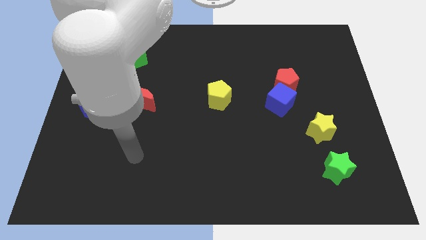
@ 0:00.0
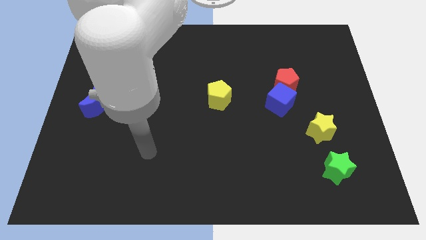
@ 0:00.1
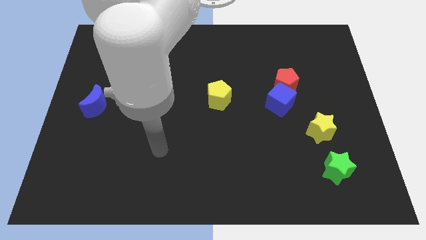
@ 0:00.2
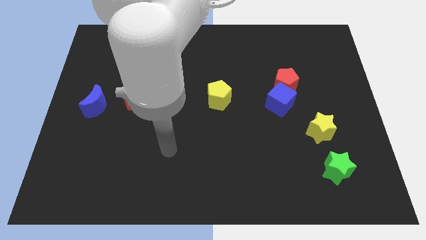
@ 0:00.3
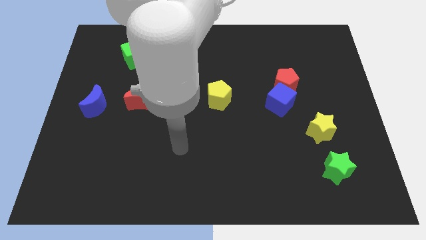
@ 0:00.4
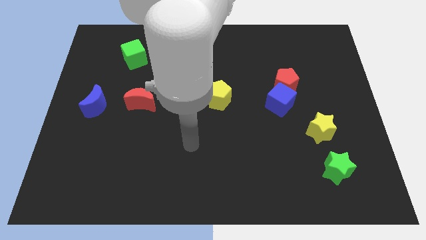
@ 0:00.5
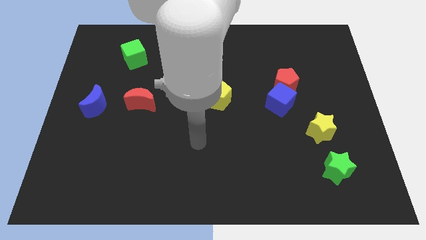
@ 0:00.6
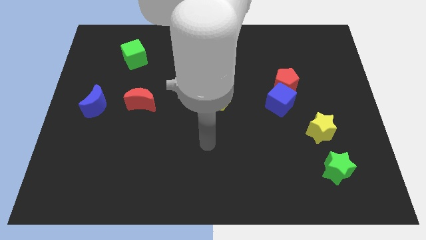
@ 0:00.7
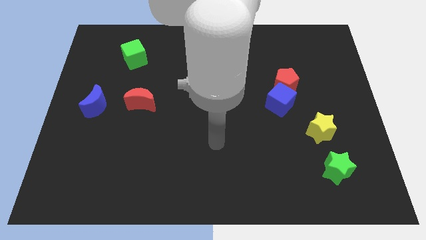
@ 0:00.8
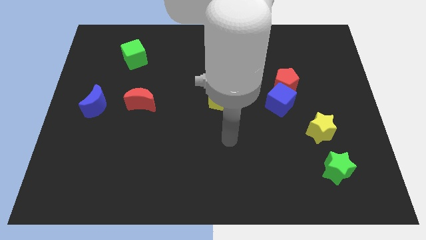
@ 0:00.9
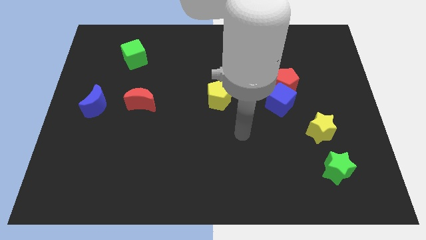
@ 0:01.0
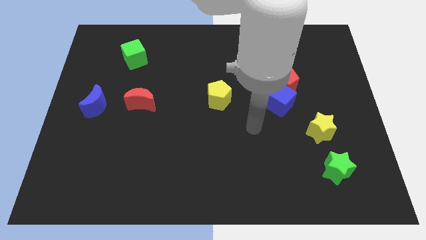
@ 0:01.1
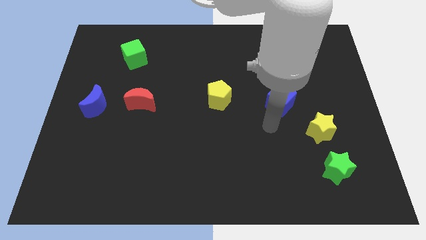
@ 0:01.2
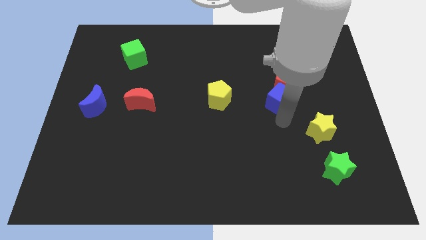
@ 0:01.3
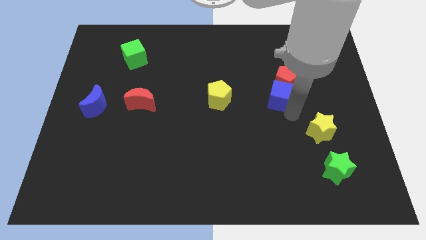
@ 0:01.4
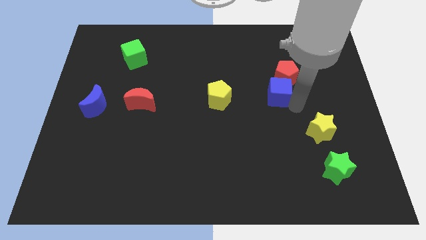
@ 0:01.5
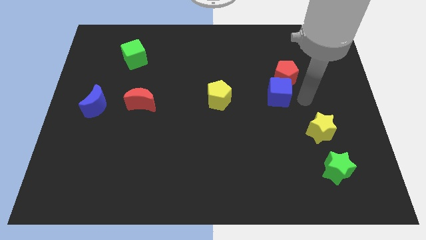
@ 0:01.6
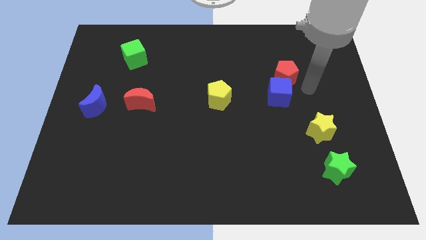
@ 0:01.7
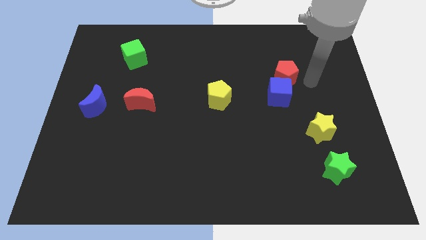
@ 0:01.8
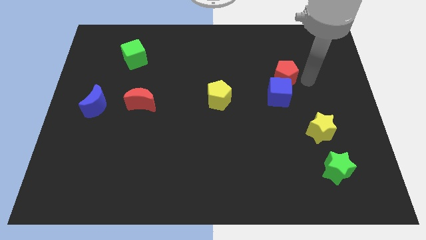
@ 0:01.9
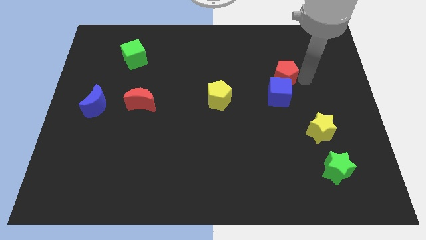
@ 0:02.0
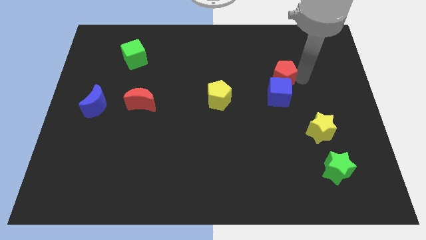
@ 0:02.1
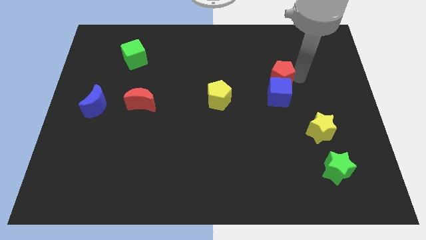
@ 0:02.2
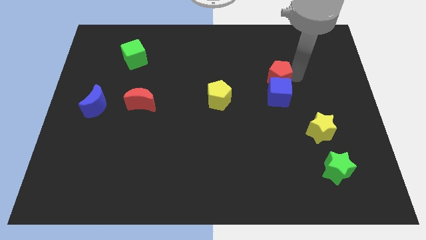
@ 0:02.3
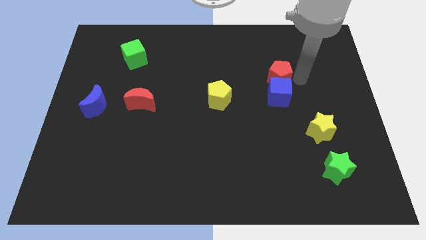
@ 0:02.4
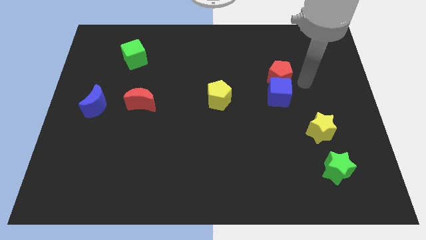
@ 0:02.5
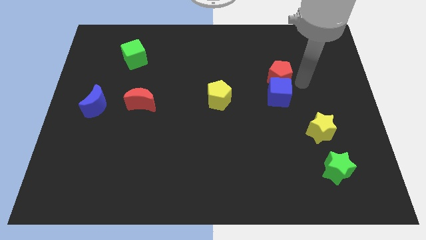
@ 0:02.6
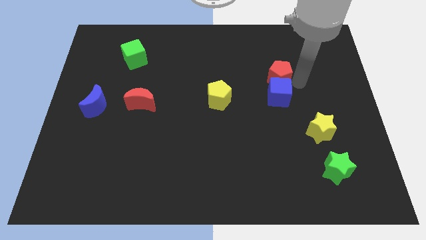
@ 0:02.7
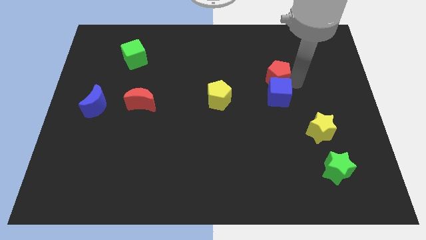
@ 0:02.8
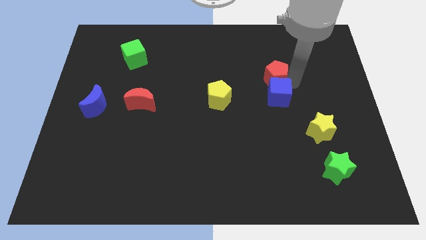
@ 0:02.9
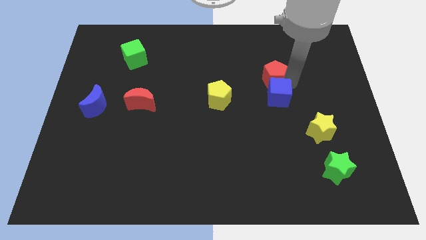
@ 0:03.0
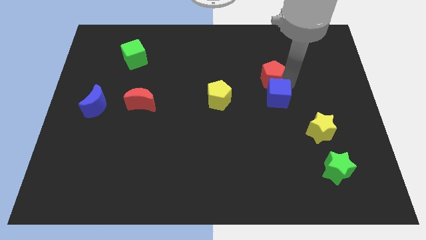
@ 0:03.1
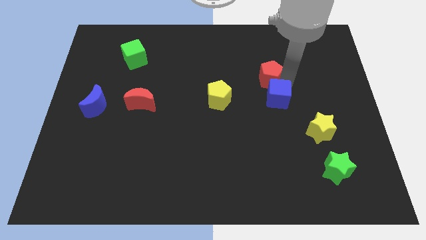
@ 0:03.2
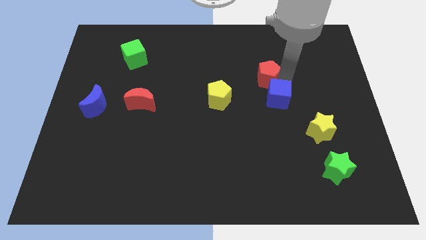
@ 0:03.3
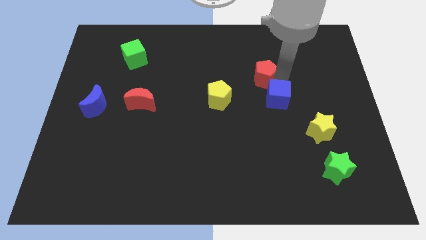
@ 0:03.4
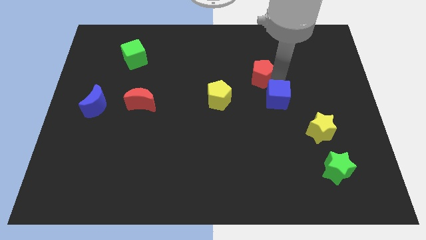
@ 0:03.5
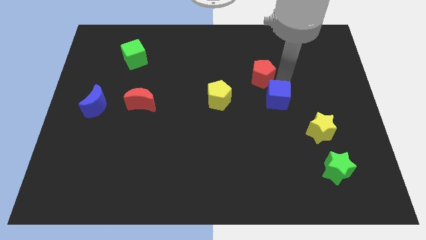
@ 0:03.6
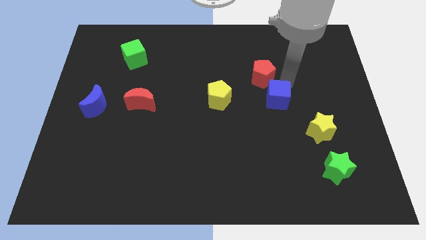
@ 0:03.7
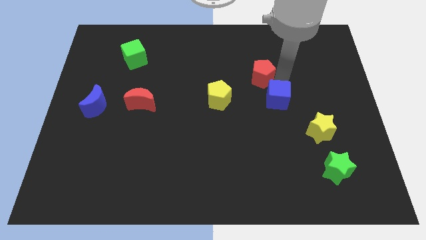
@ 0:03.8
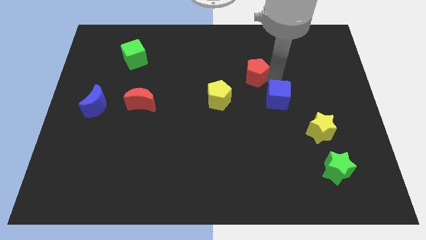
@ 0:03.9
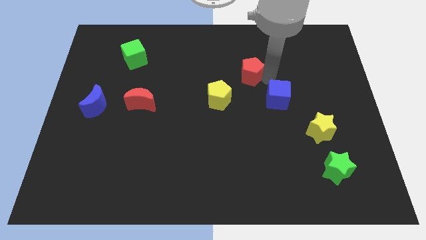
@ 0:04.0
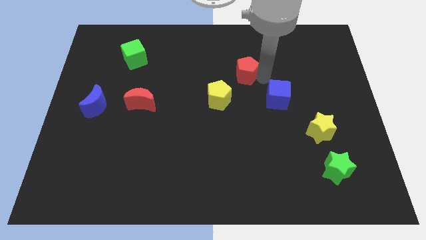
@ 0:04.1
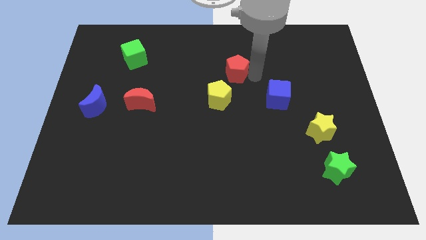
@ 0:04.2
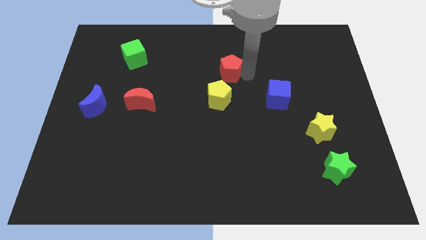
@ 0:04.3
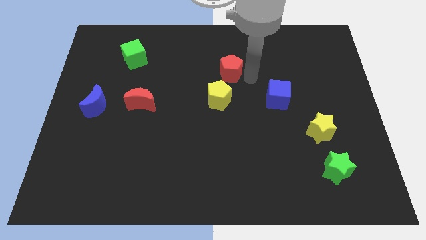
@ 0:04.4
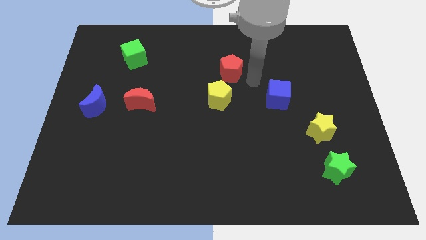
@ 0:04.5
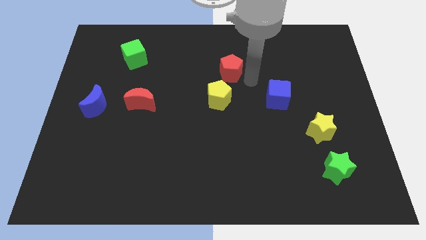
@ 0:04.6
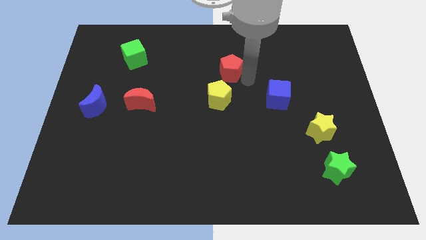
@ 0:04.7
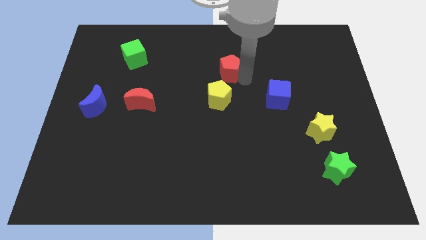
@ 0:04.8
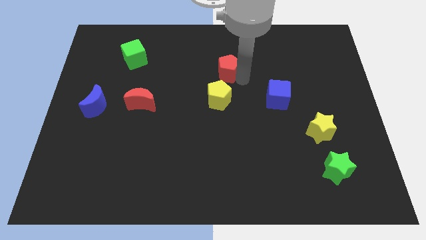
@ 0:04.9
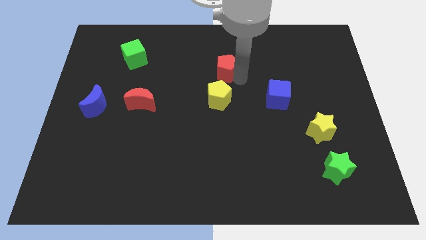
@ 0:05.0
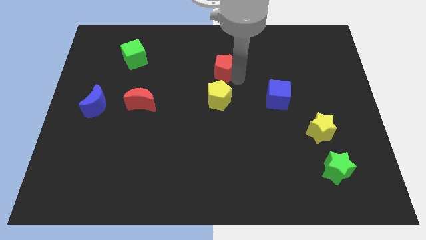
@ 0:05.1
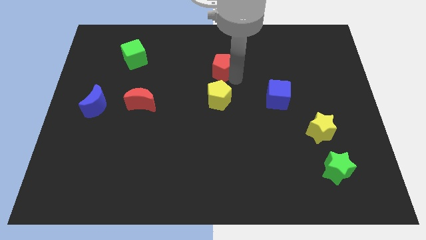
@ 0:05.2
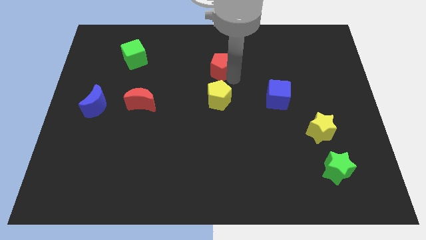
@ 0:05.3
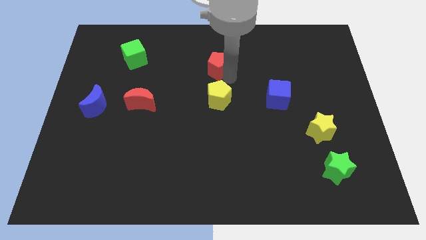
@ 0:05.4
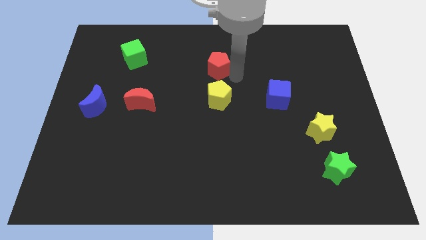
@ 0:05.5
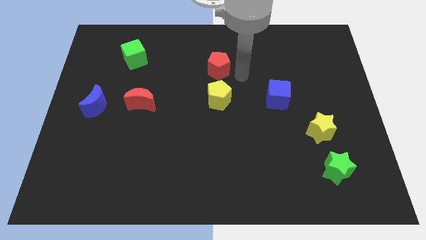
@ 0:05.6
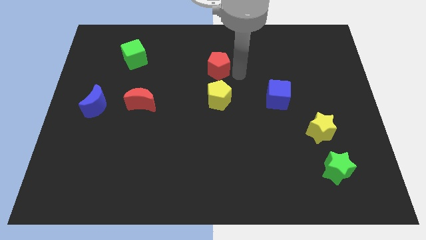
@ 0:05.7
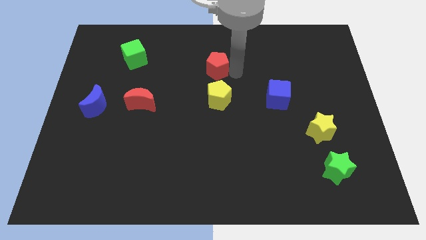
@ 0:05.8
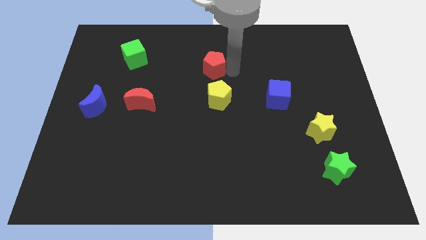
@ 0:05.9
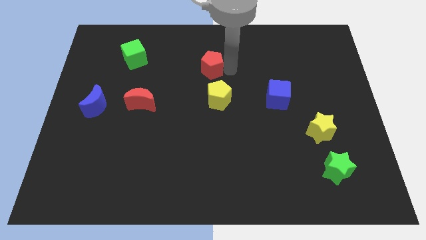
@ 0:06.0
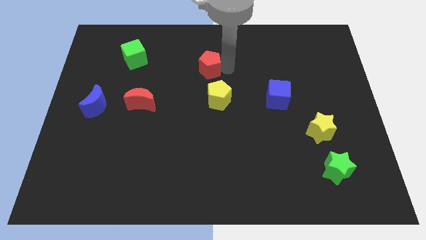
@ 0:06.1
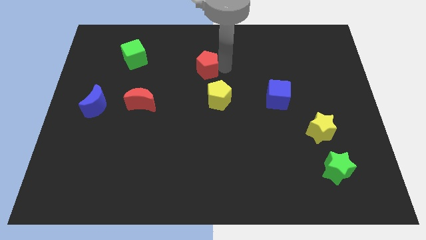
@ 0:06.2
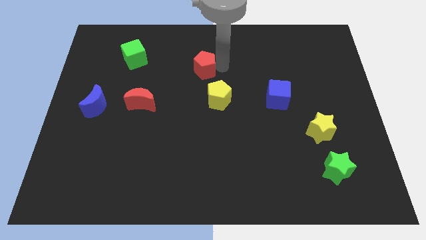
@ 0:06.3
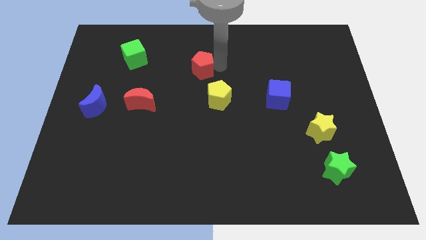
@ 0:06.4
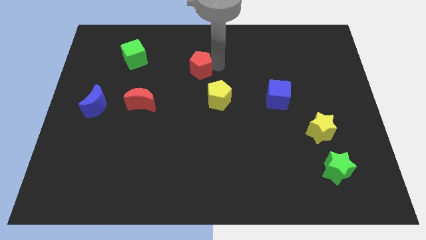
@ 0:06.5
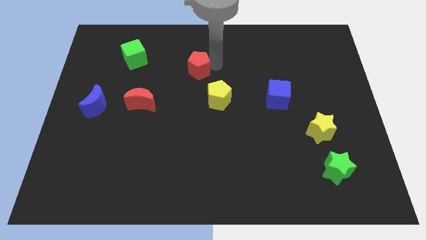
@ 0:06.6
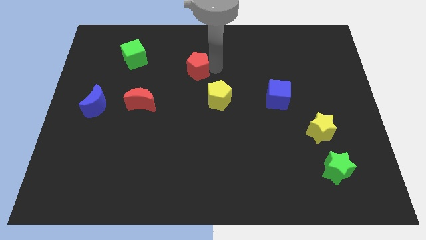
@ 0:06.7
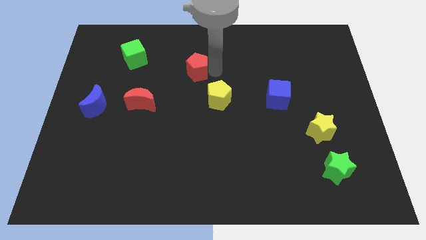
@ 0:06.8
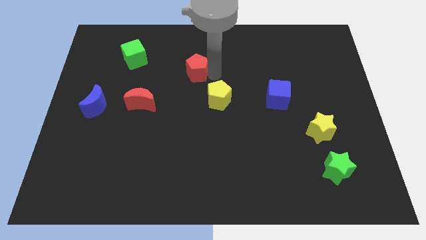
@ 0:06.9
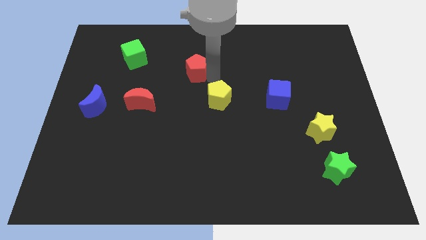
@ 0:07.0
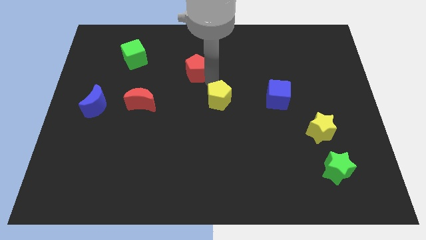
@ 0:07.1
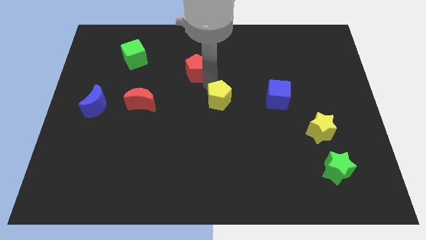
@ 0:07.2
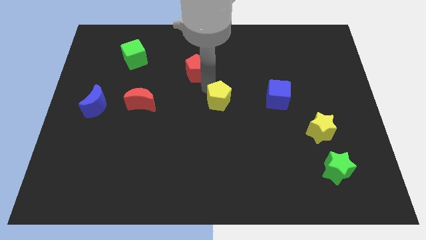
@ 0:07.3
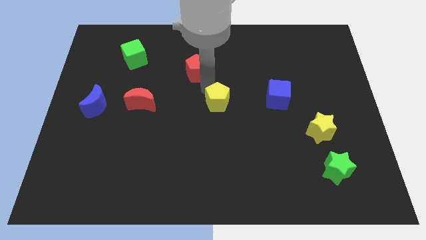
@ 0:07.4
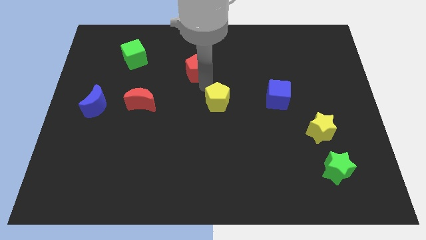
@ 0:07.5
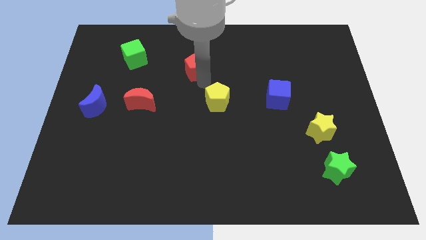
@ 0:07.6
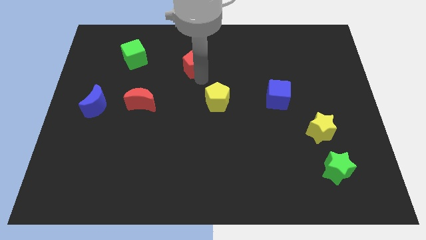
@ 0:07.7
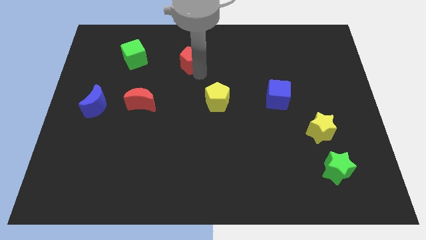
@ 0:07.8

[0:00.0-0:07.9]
slide the red pentagon to the right of the green cube
